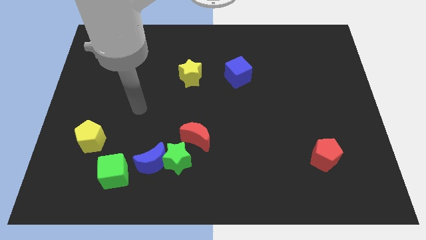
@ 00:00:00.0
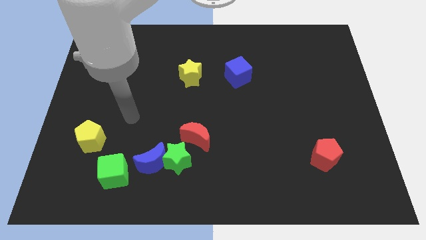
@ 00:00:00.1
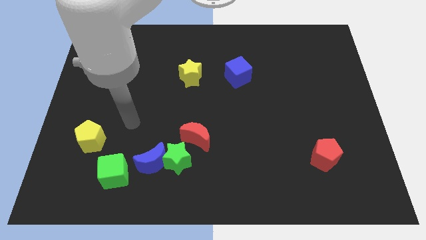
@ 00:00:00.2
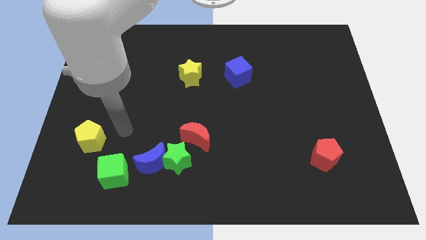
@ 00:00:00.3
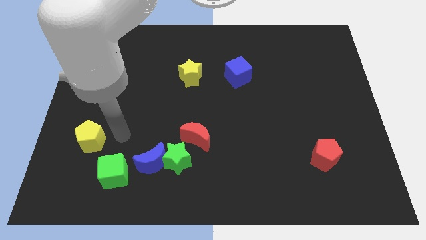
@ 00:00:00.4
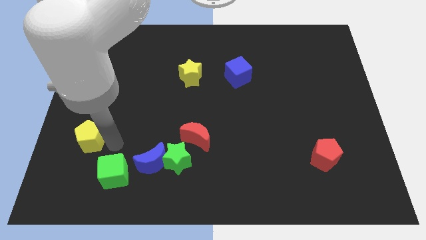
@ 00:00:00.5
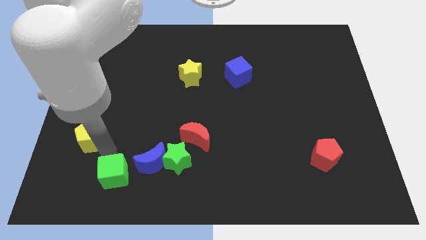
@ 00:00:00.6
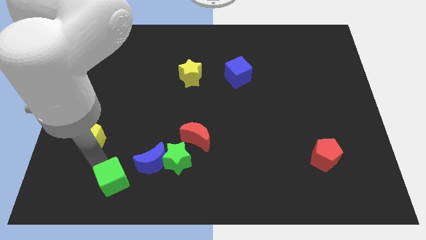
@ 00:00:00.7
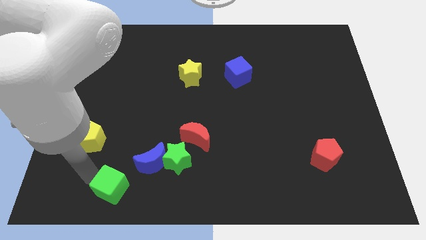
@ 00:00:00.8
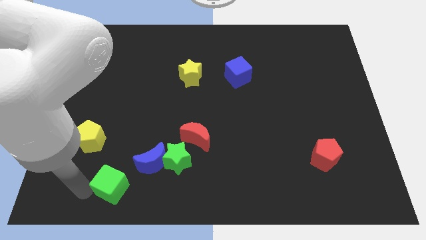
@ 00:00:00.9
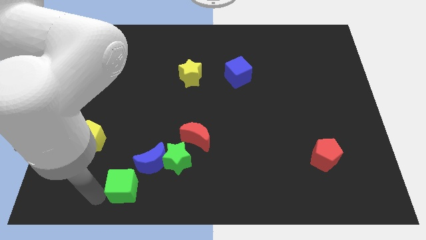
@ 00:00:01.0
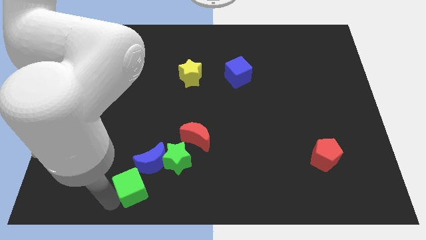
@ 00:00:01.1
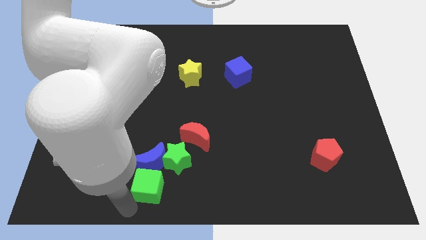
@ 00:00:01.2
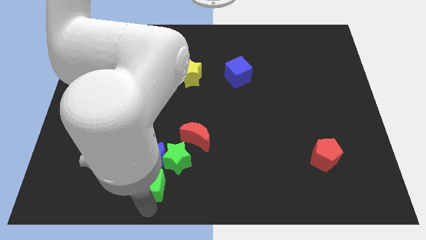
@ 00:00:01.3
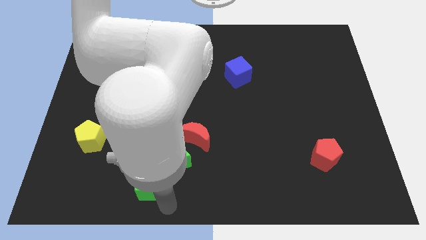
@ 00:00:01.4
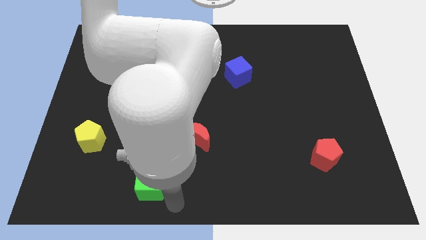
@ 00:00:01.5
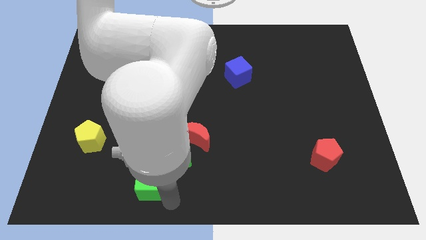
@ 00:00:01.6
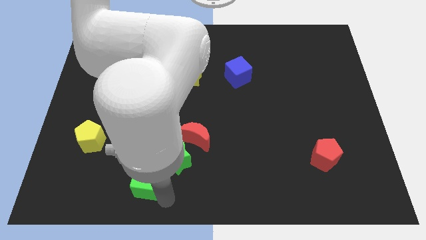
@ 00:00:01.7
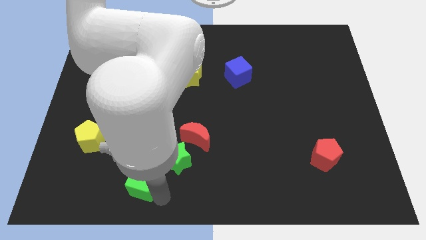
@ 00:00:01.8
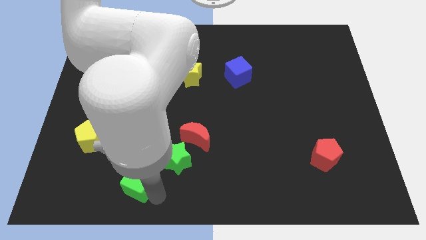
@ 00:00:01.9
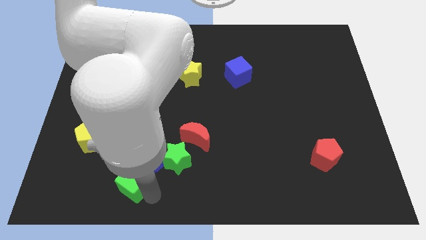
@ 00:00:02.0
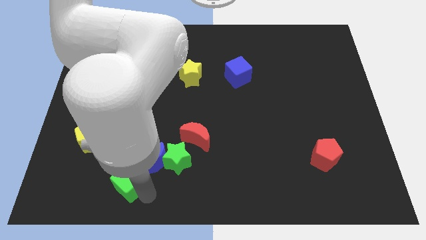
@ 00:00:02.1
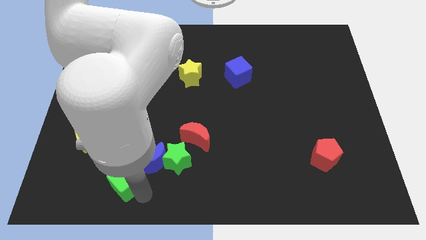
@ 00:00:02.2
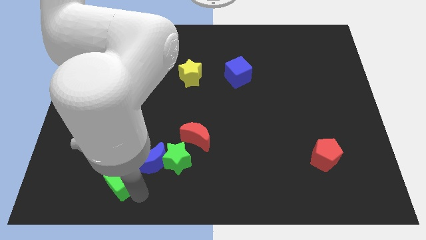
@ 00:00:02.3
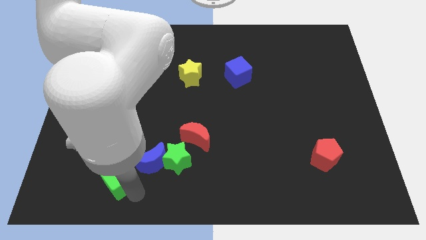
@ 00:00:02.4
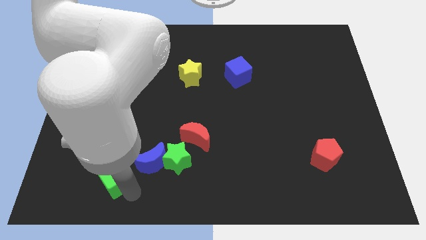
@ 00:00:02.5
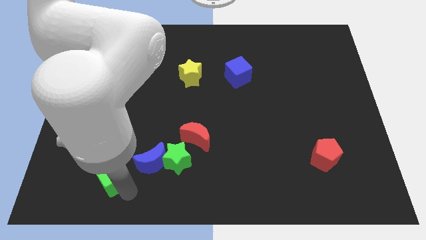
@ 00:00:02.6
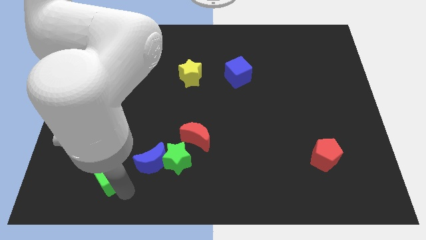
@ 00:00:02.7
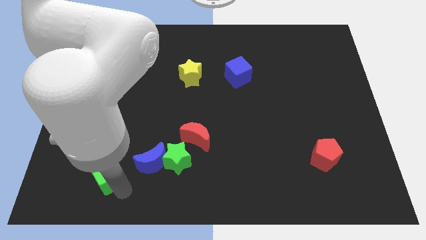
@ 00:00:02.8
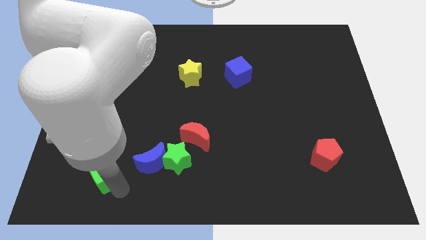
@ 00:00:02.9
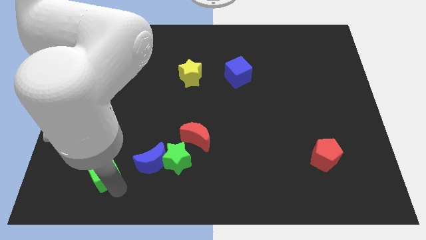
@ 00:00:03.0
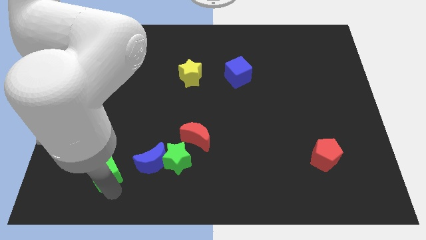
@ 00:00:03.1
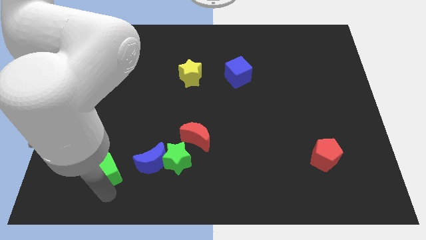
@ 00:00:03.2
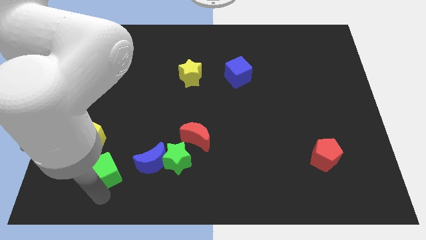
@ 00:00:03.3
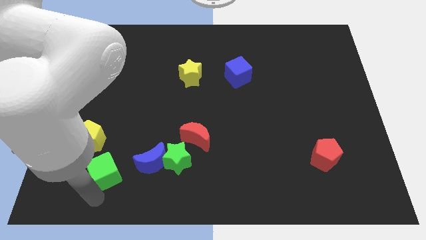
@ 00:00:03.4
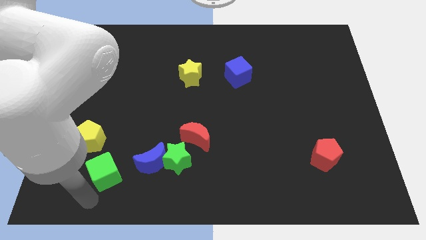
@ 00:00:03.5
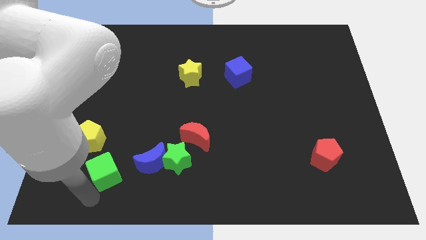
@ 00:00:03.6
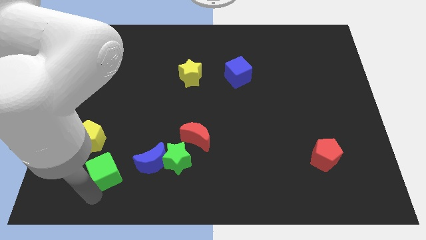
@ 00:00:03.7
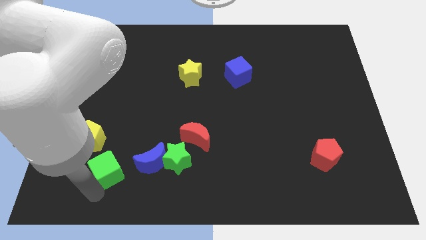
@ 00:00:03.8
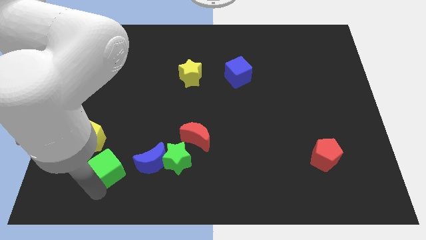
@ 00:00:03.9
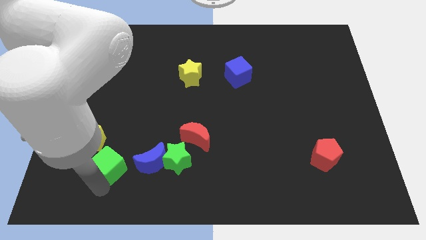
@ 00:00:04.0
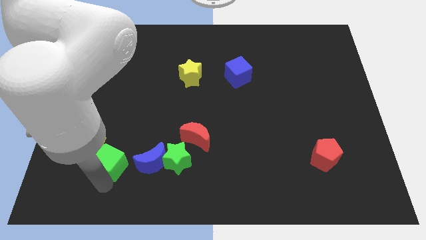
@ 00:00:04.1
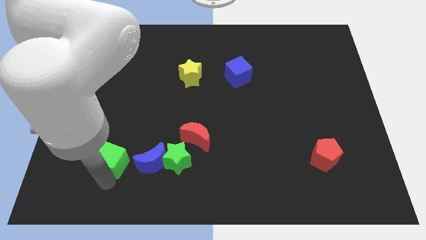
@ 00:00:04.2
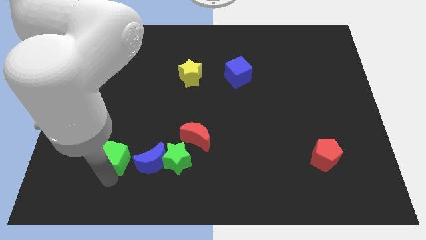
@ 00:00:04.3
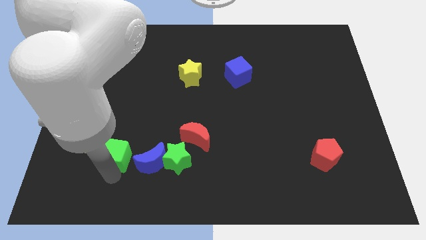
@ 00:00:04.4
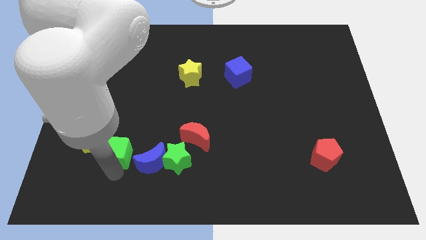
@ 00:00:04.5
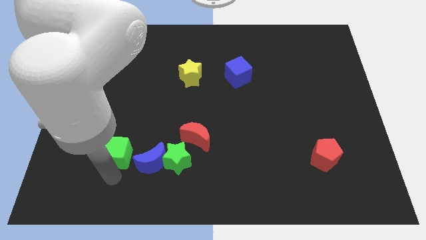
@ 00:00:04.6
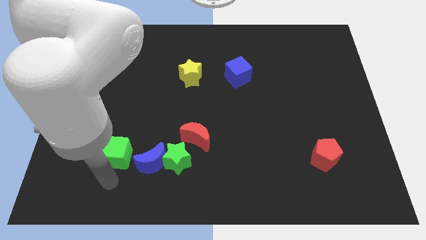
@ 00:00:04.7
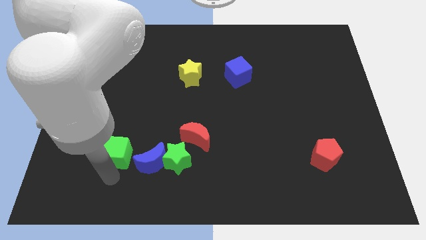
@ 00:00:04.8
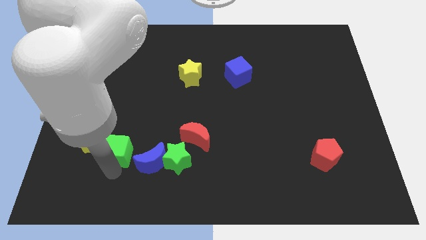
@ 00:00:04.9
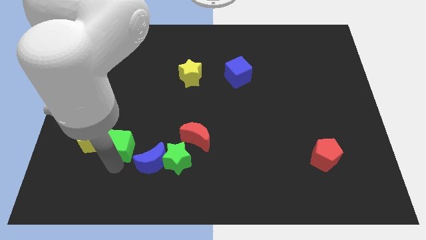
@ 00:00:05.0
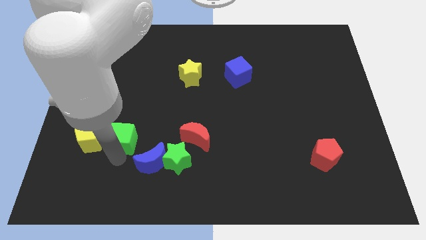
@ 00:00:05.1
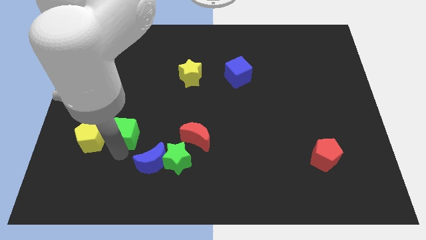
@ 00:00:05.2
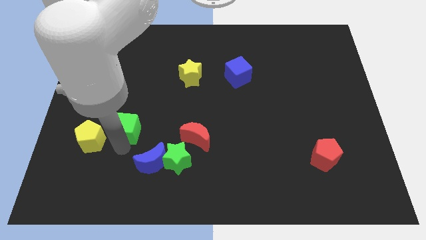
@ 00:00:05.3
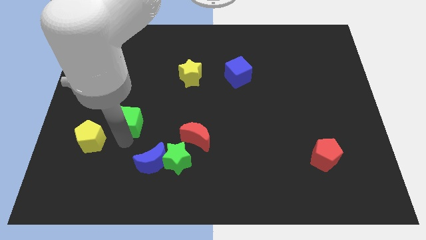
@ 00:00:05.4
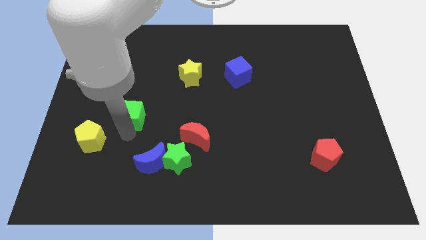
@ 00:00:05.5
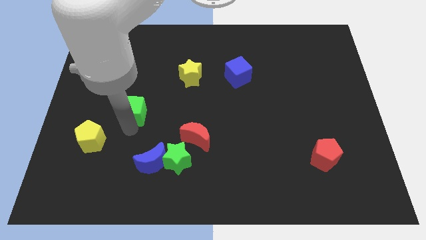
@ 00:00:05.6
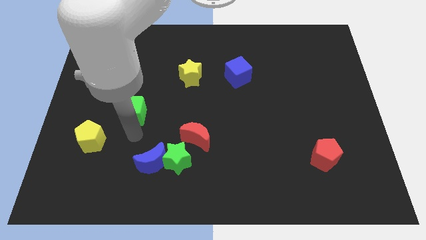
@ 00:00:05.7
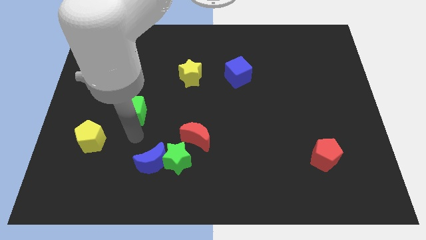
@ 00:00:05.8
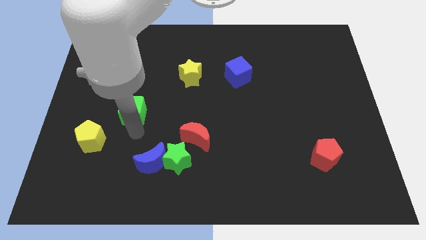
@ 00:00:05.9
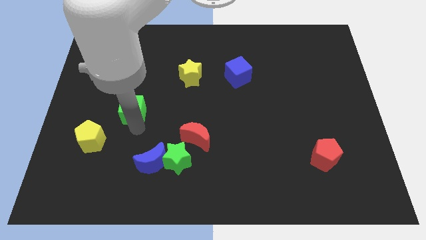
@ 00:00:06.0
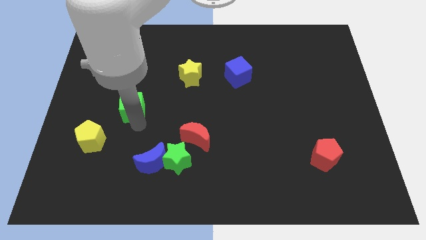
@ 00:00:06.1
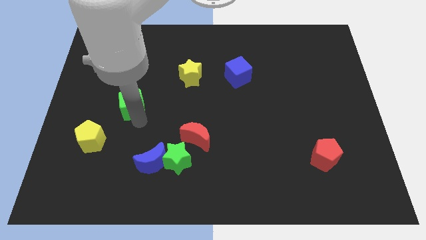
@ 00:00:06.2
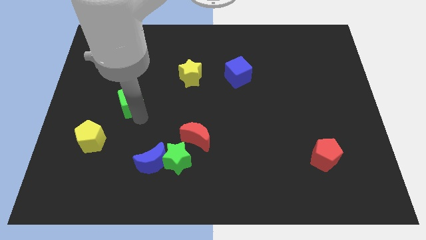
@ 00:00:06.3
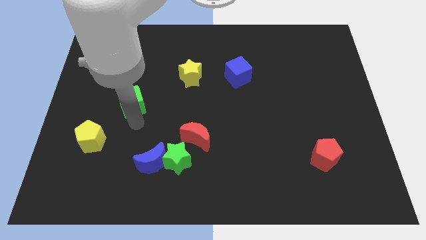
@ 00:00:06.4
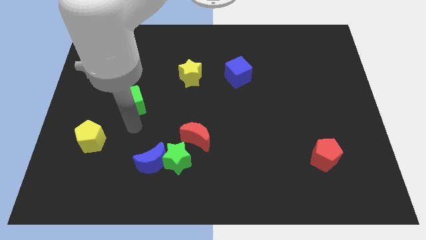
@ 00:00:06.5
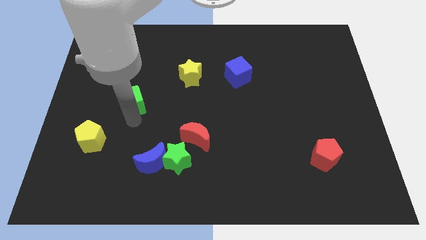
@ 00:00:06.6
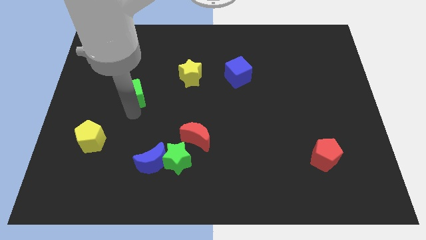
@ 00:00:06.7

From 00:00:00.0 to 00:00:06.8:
slide the green cube upwards

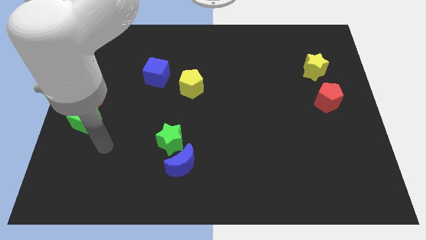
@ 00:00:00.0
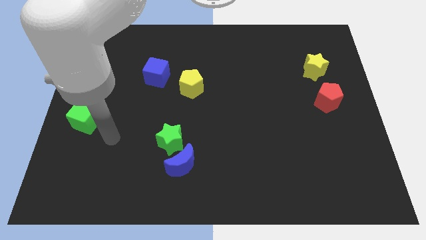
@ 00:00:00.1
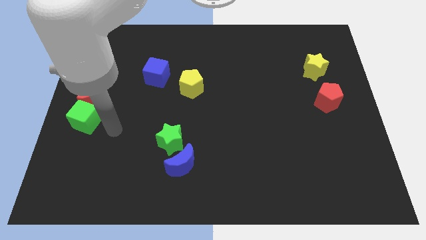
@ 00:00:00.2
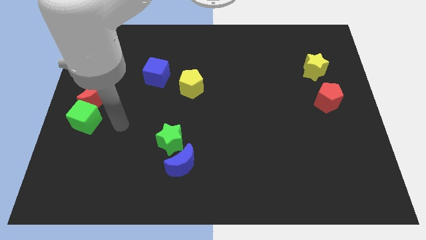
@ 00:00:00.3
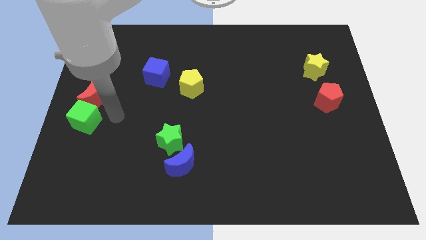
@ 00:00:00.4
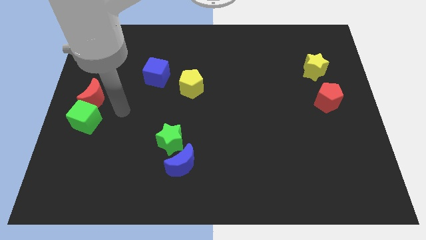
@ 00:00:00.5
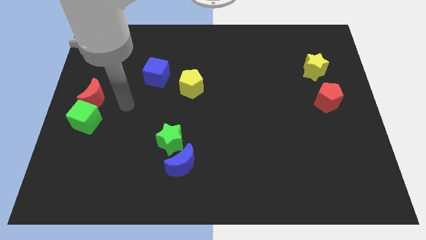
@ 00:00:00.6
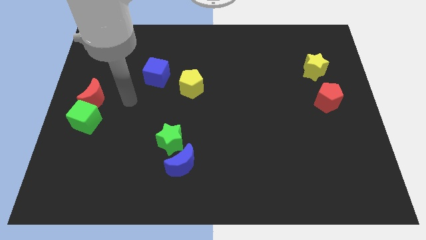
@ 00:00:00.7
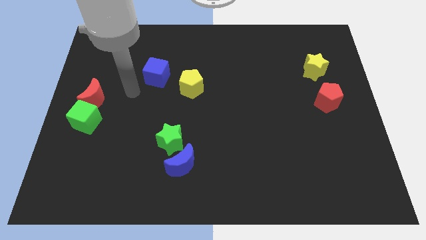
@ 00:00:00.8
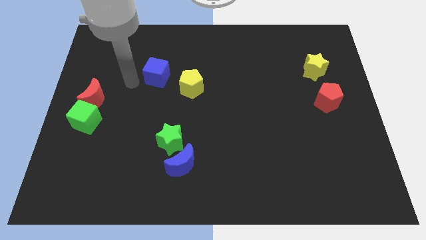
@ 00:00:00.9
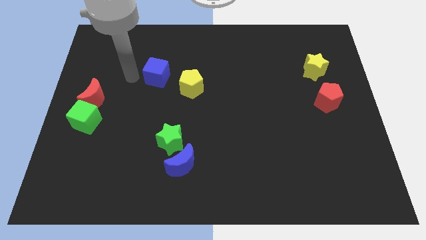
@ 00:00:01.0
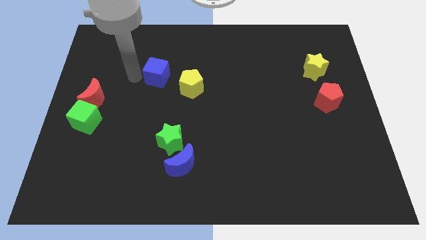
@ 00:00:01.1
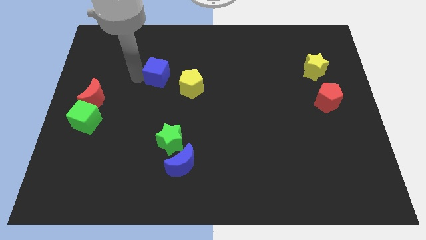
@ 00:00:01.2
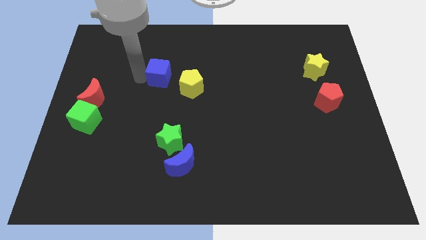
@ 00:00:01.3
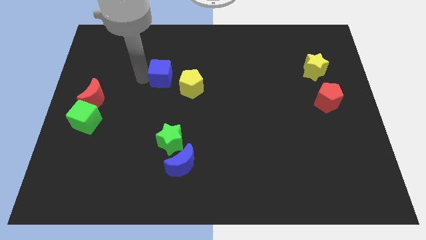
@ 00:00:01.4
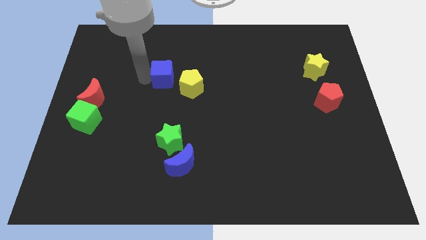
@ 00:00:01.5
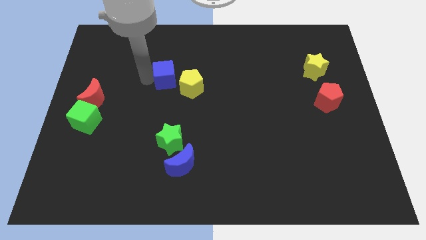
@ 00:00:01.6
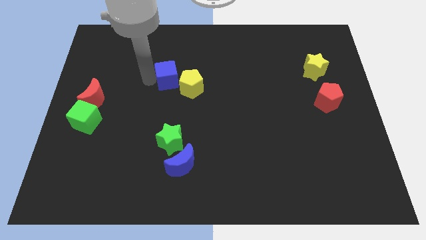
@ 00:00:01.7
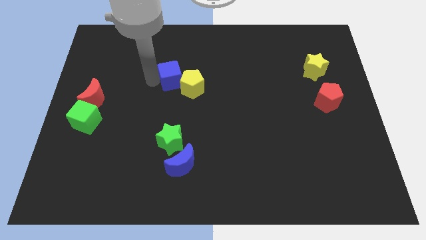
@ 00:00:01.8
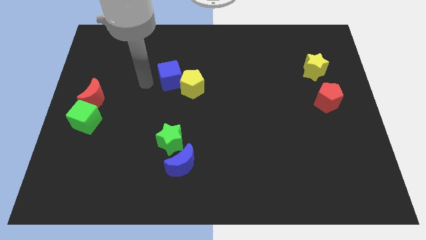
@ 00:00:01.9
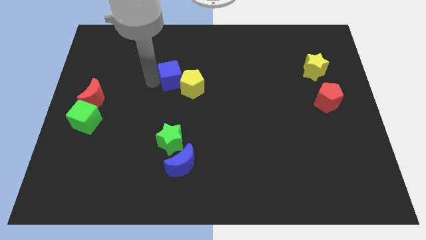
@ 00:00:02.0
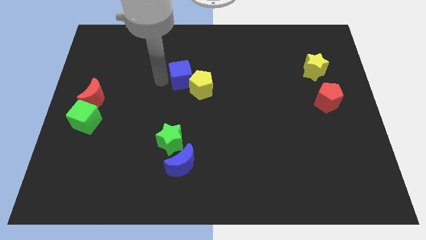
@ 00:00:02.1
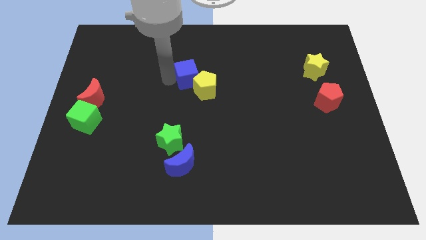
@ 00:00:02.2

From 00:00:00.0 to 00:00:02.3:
slightly move the blue cube right
